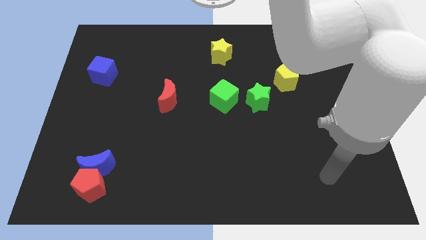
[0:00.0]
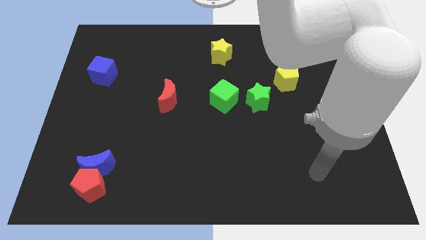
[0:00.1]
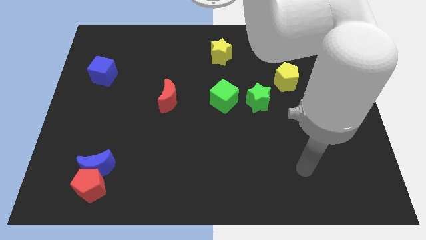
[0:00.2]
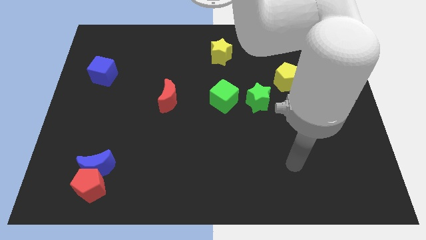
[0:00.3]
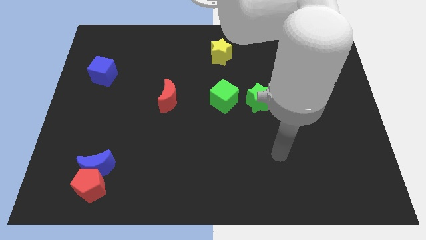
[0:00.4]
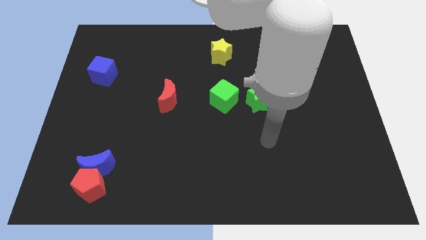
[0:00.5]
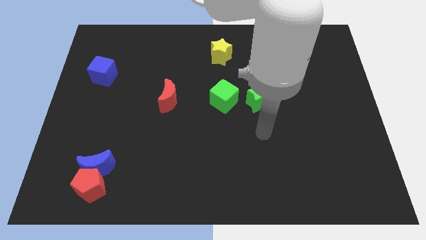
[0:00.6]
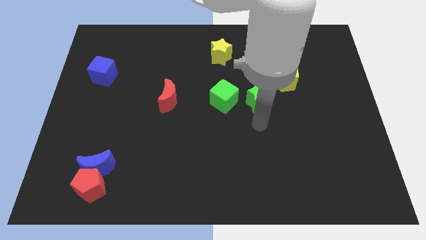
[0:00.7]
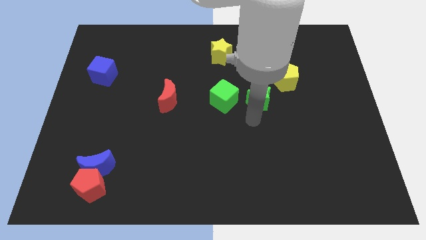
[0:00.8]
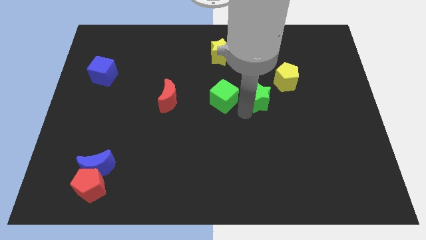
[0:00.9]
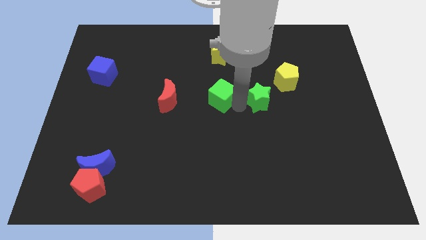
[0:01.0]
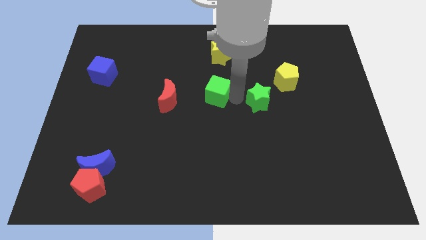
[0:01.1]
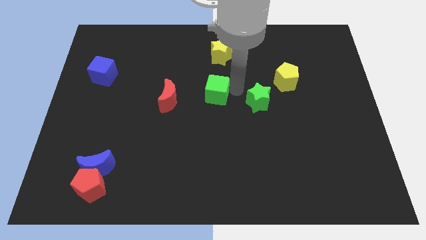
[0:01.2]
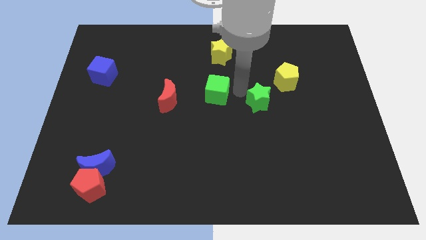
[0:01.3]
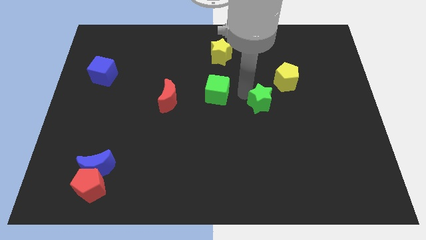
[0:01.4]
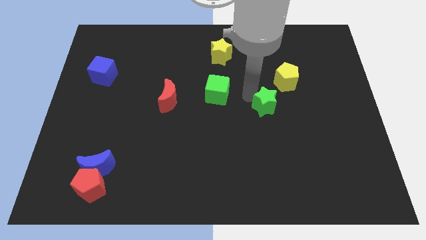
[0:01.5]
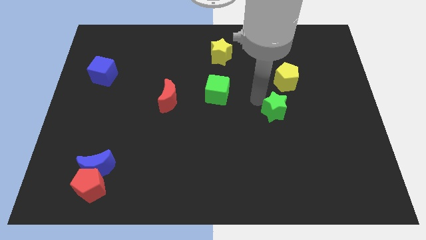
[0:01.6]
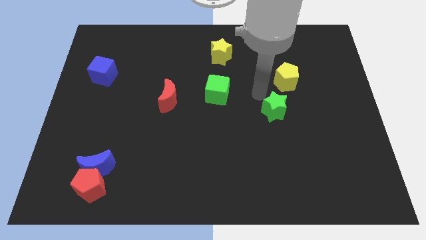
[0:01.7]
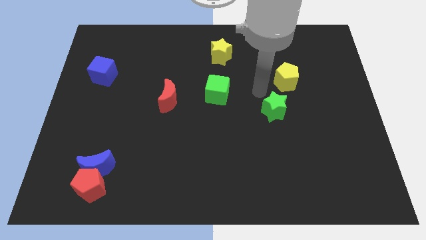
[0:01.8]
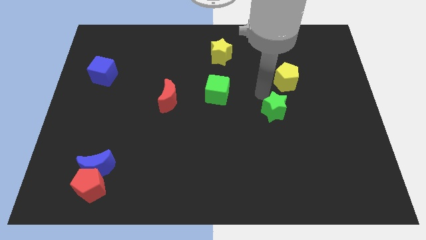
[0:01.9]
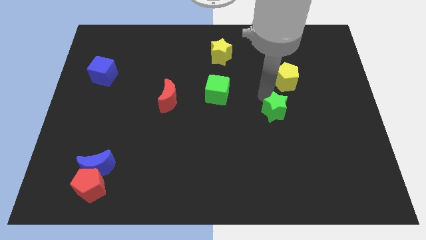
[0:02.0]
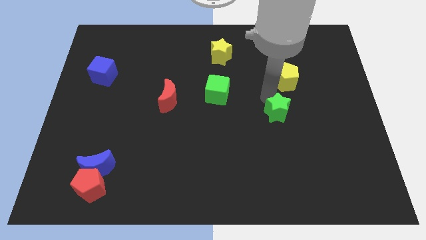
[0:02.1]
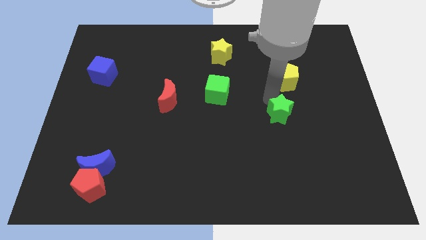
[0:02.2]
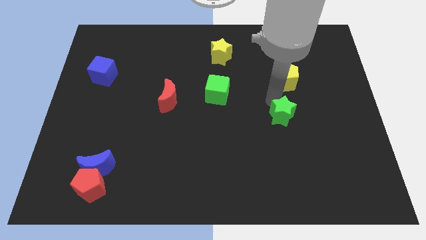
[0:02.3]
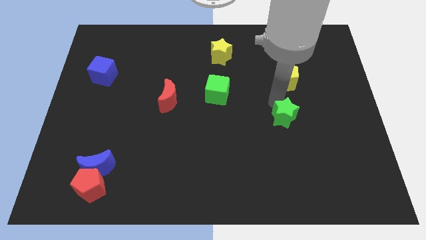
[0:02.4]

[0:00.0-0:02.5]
slightly push the green star diagonally downwards and right

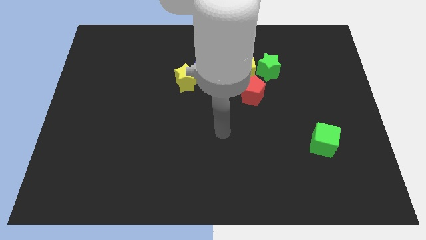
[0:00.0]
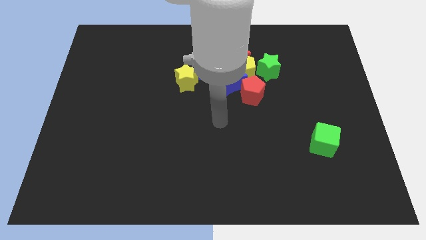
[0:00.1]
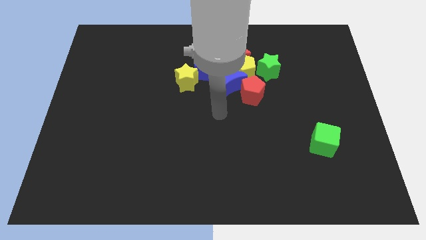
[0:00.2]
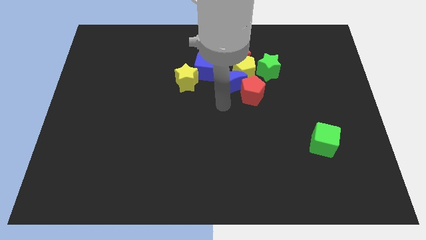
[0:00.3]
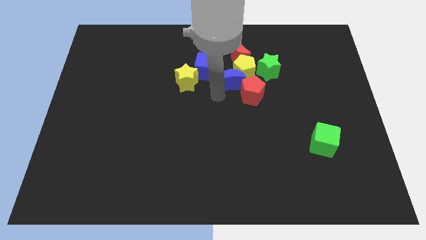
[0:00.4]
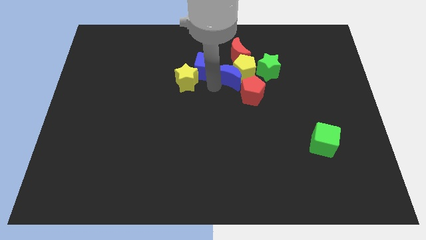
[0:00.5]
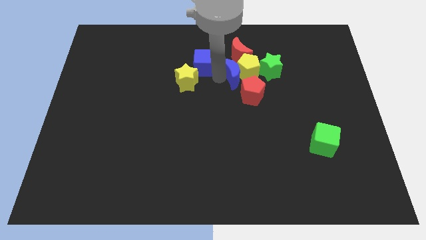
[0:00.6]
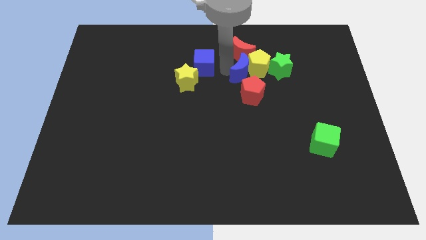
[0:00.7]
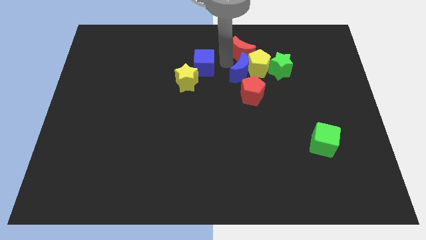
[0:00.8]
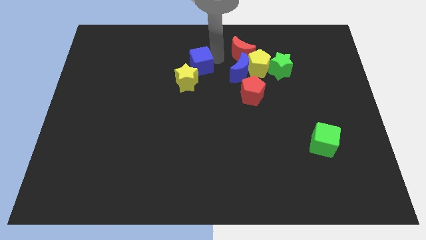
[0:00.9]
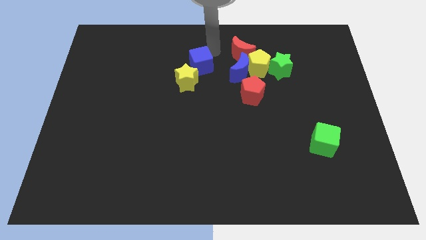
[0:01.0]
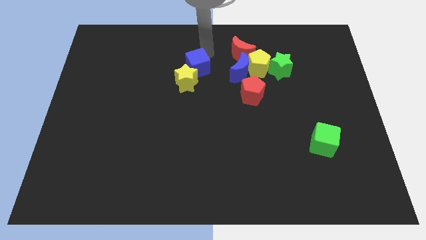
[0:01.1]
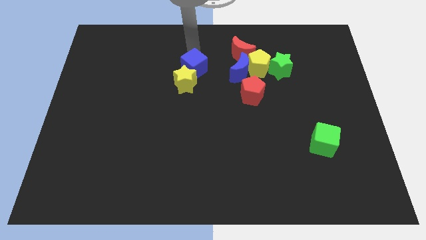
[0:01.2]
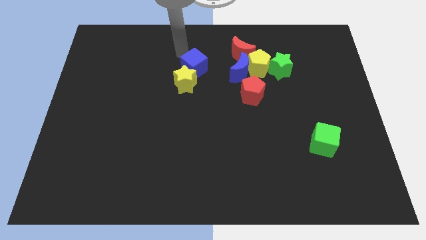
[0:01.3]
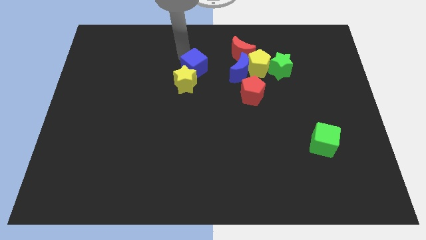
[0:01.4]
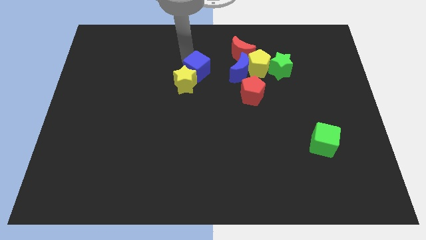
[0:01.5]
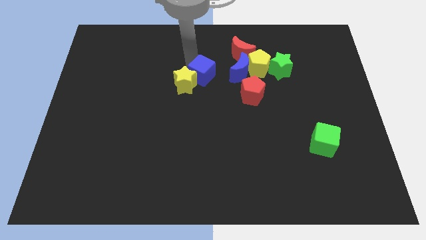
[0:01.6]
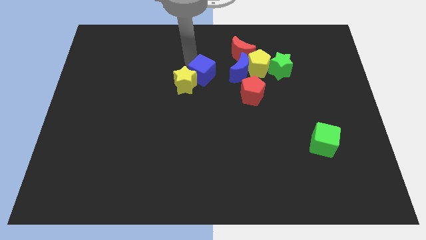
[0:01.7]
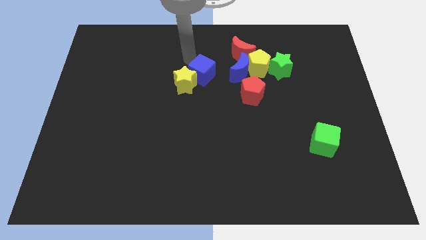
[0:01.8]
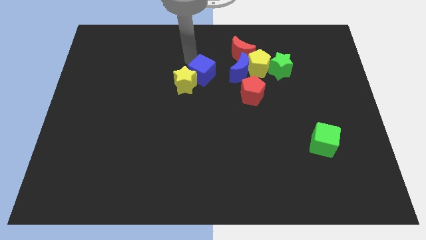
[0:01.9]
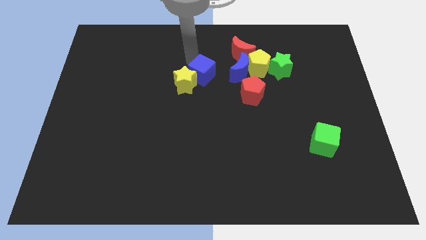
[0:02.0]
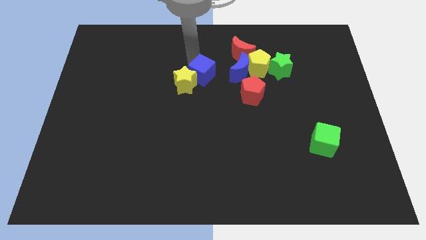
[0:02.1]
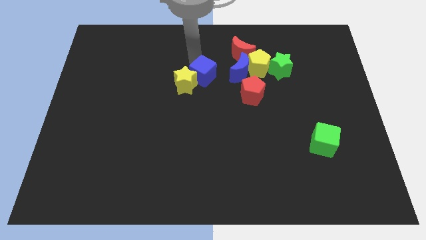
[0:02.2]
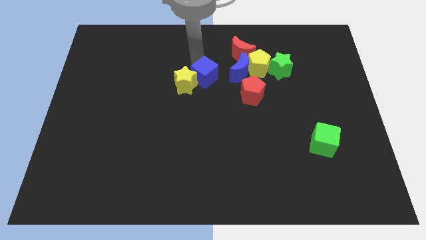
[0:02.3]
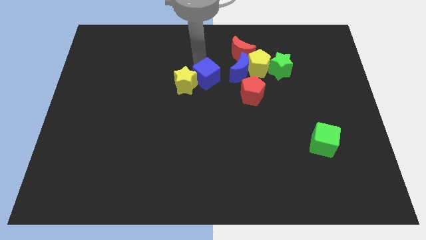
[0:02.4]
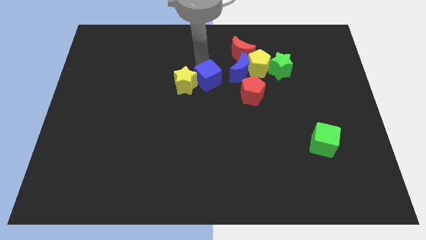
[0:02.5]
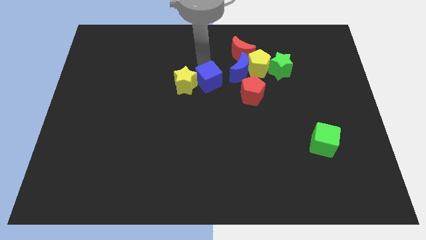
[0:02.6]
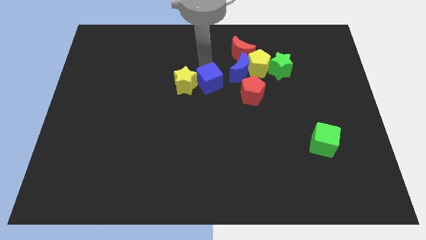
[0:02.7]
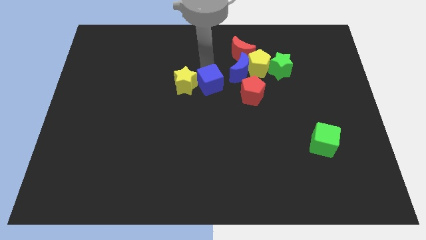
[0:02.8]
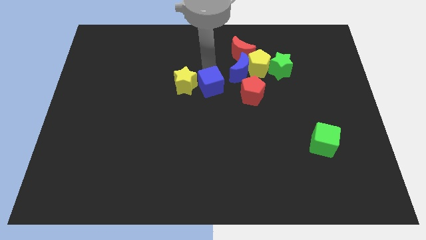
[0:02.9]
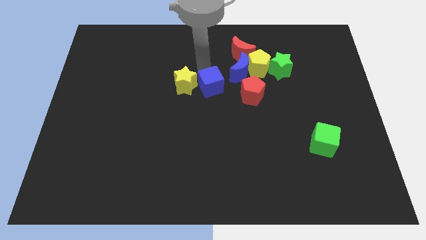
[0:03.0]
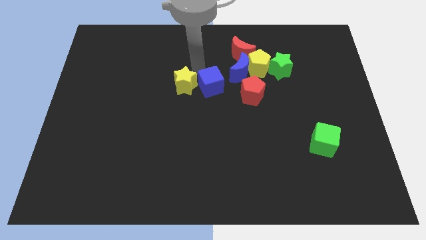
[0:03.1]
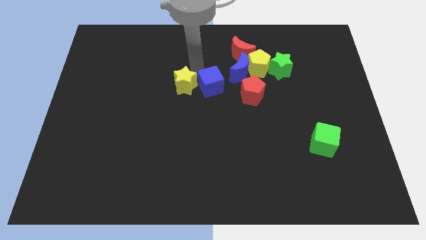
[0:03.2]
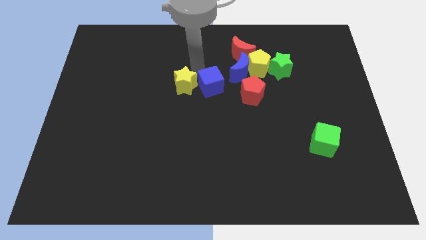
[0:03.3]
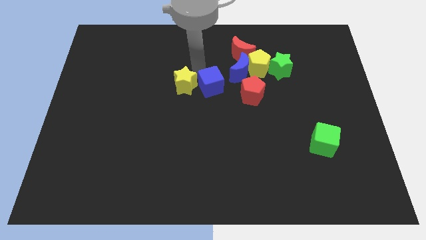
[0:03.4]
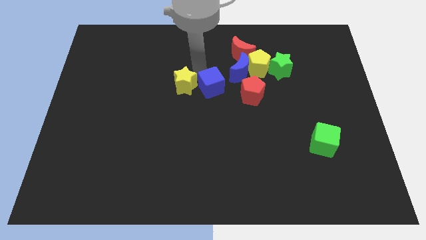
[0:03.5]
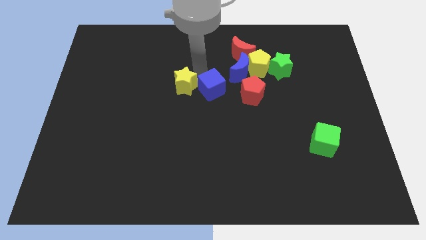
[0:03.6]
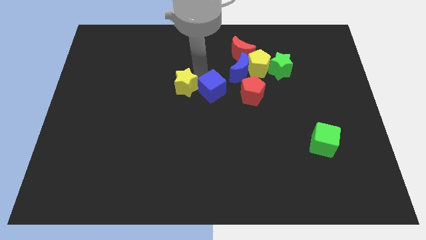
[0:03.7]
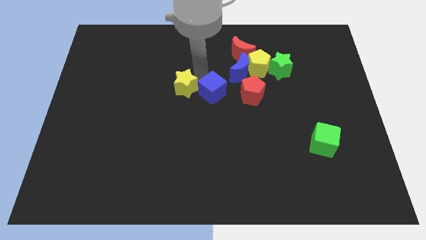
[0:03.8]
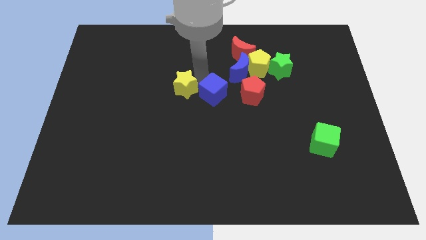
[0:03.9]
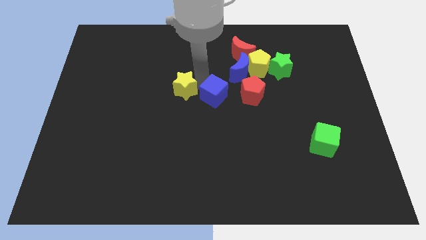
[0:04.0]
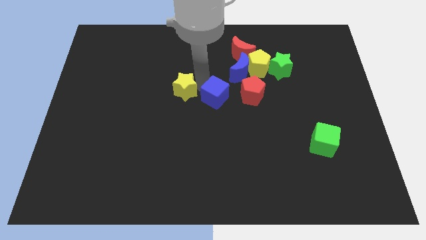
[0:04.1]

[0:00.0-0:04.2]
slightly slide the blue cube downwards and to the right diagonally

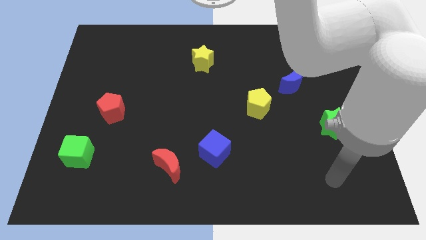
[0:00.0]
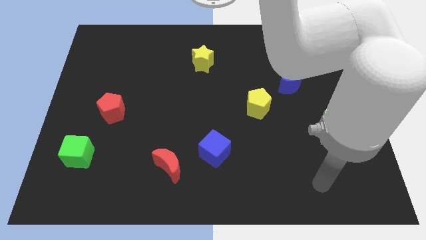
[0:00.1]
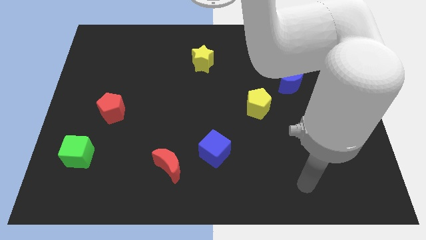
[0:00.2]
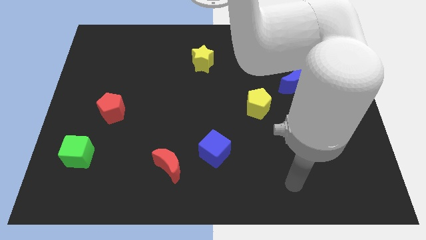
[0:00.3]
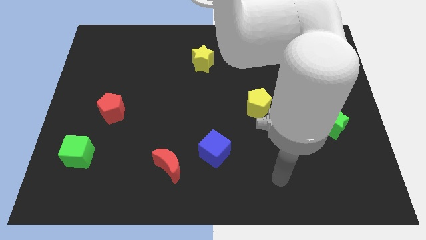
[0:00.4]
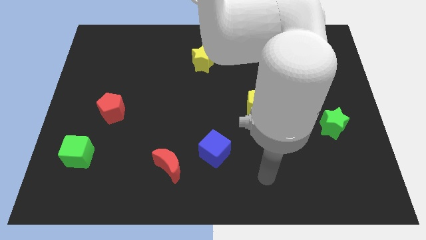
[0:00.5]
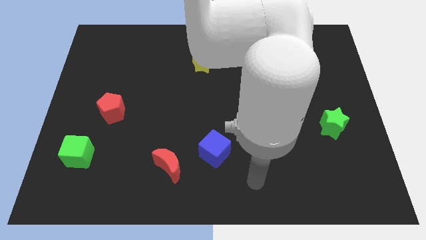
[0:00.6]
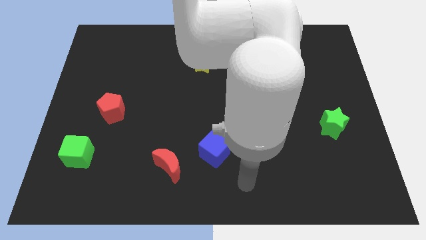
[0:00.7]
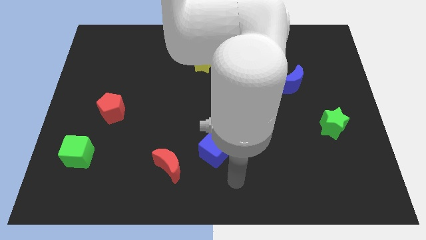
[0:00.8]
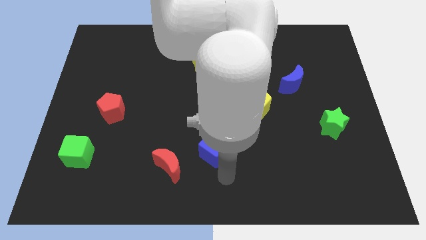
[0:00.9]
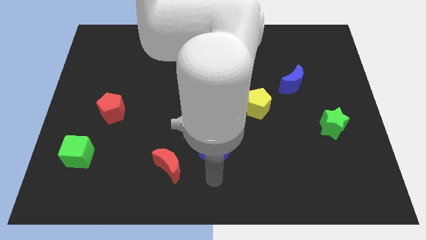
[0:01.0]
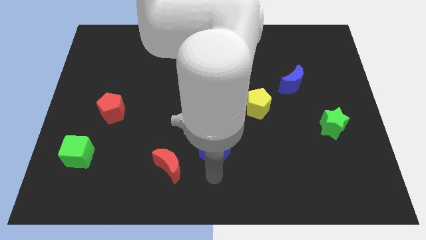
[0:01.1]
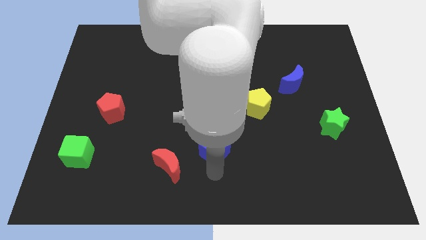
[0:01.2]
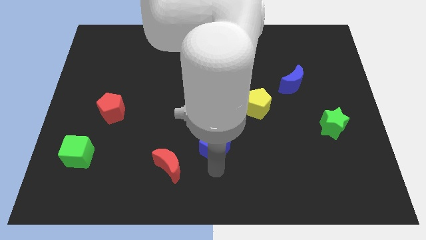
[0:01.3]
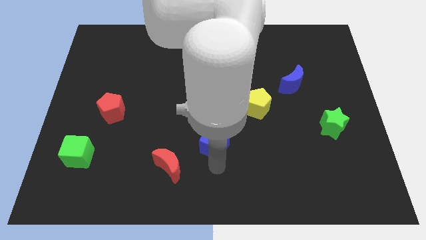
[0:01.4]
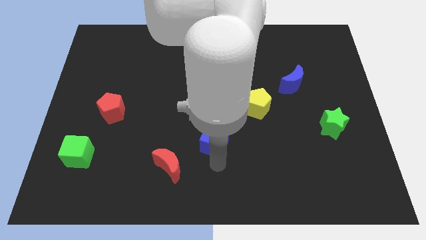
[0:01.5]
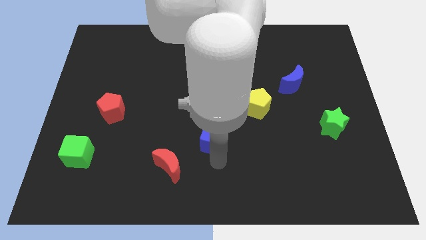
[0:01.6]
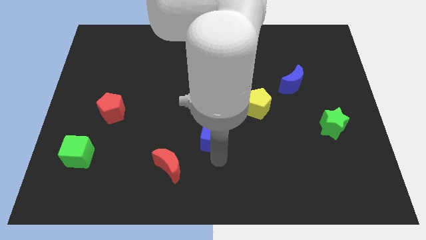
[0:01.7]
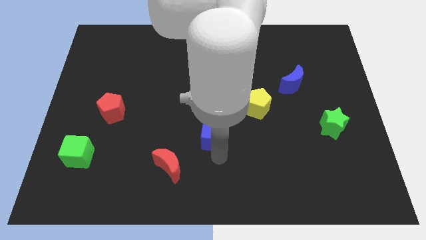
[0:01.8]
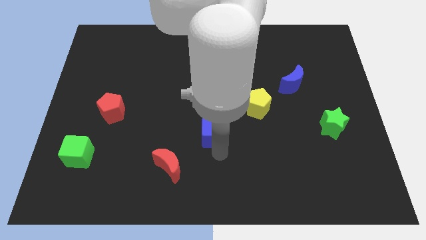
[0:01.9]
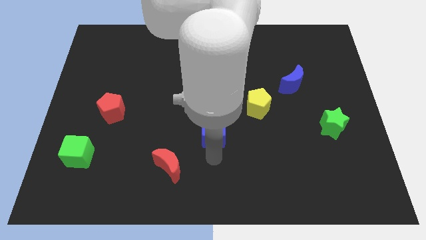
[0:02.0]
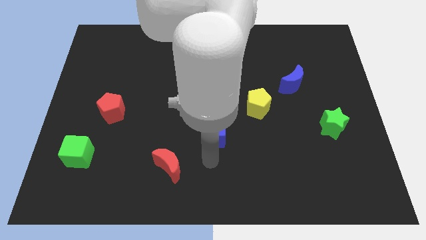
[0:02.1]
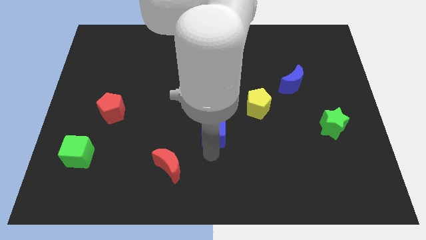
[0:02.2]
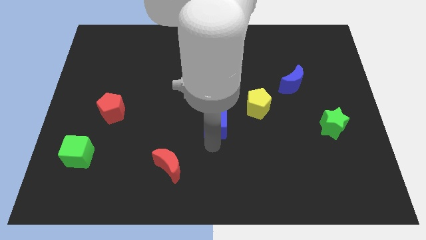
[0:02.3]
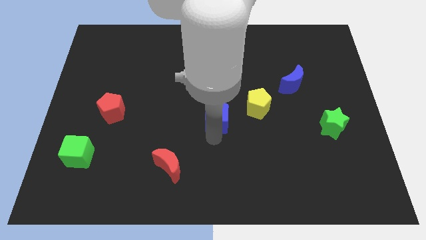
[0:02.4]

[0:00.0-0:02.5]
slide the blue cube a little upwards
